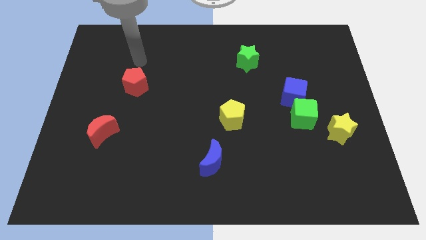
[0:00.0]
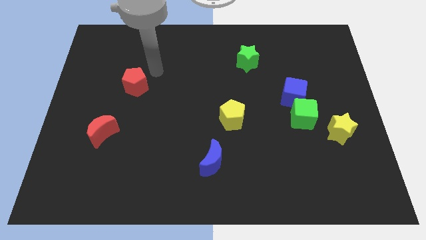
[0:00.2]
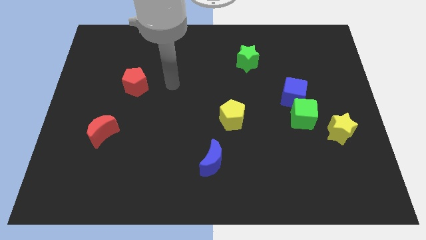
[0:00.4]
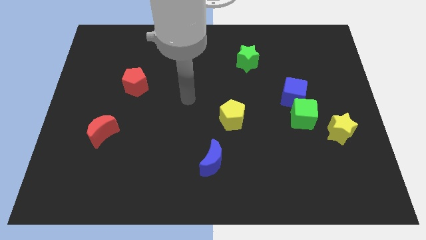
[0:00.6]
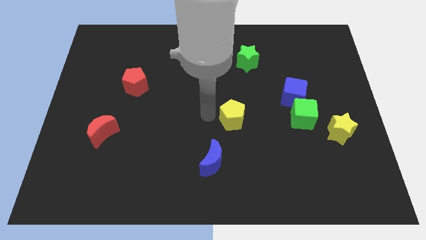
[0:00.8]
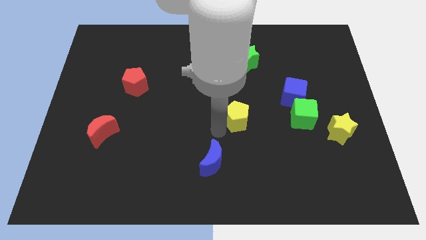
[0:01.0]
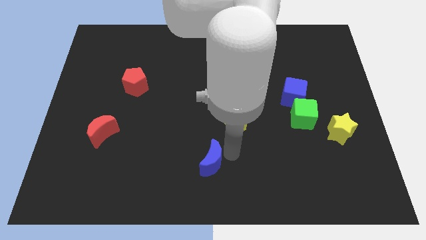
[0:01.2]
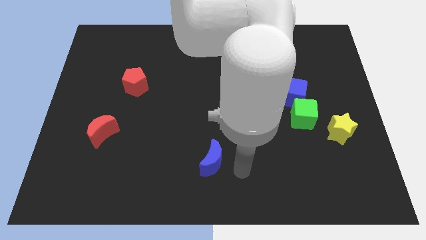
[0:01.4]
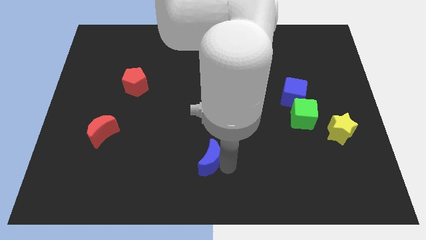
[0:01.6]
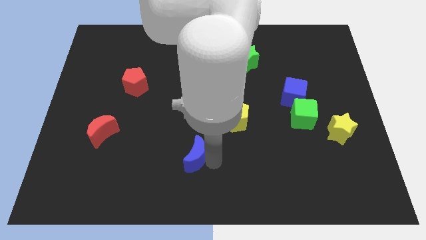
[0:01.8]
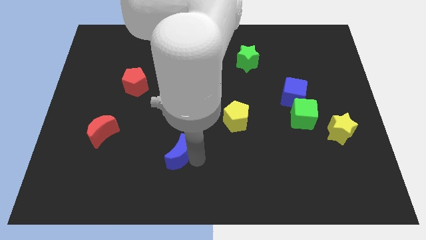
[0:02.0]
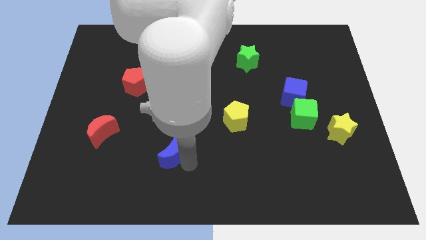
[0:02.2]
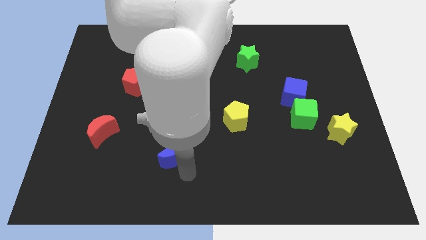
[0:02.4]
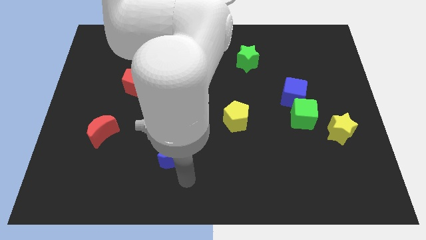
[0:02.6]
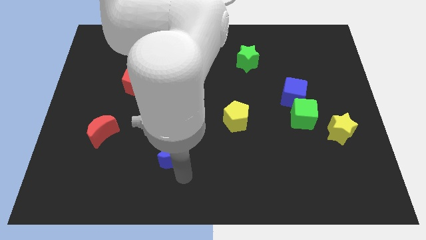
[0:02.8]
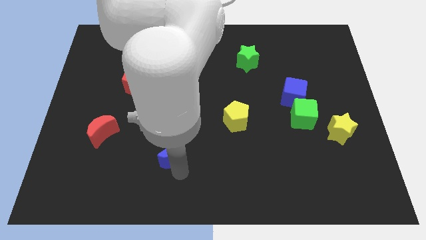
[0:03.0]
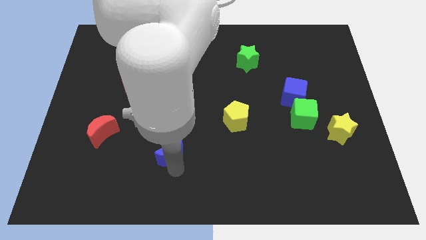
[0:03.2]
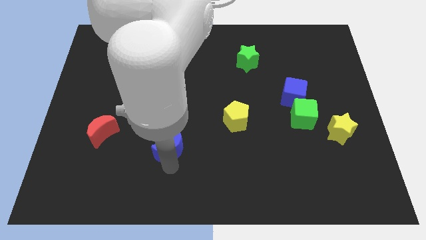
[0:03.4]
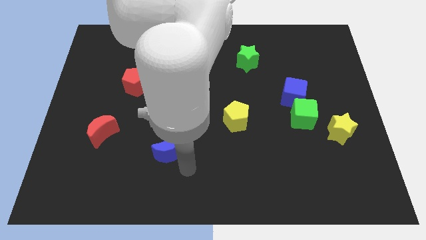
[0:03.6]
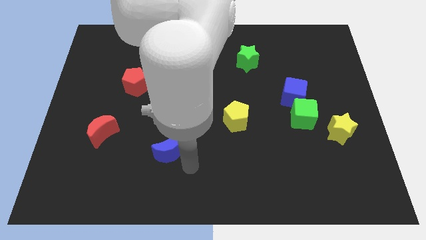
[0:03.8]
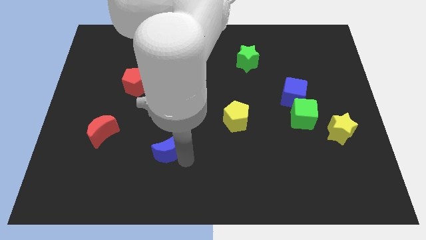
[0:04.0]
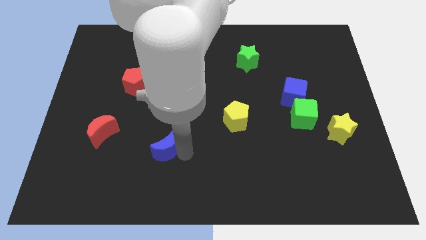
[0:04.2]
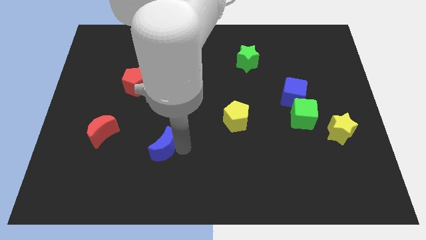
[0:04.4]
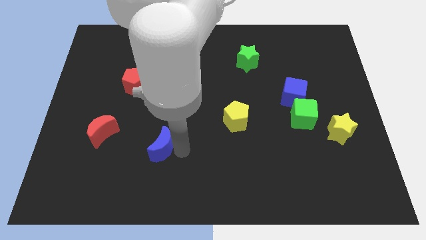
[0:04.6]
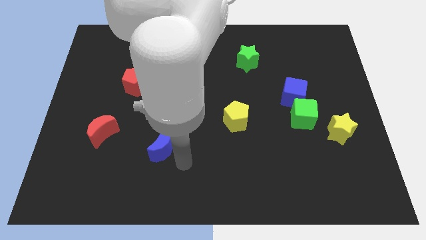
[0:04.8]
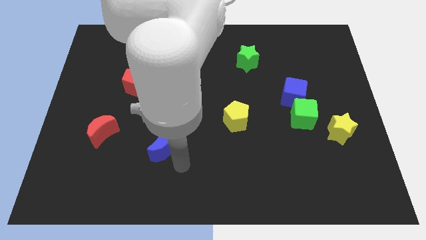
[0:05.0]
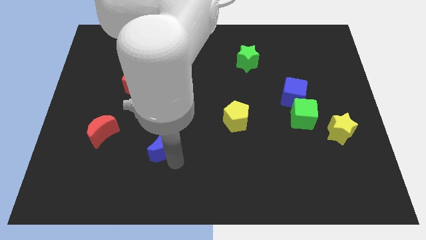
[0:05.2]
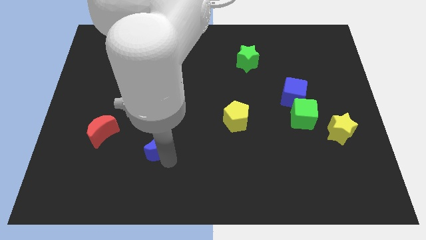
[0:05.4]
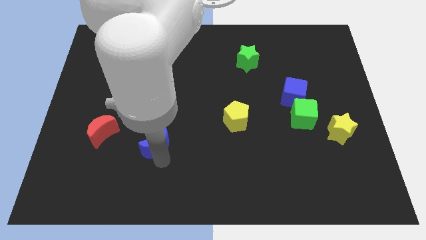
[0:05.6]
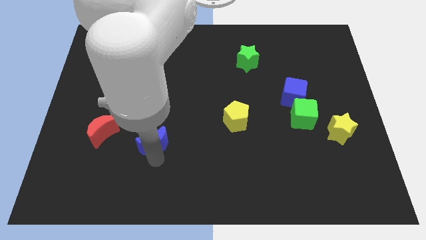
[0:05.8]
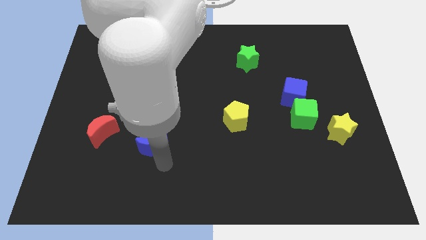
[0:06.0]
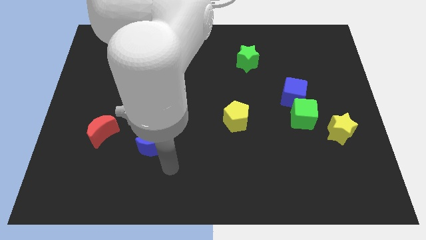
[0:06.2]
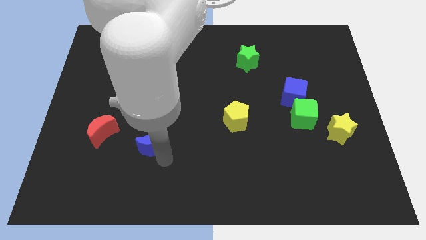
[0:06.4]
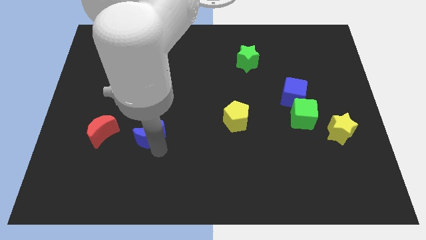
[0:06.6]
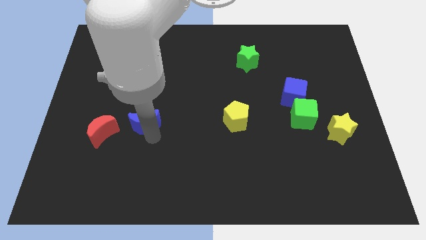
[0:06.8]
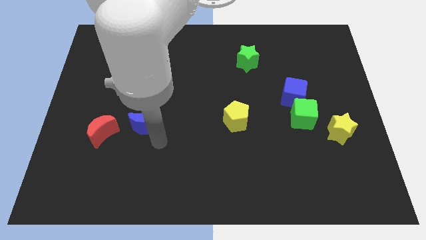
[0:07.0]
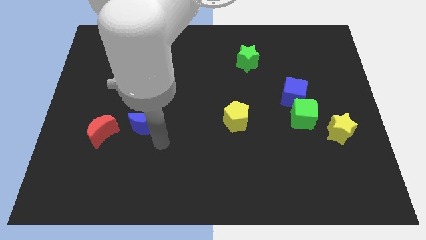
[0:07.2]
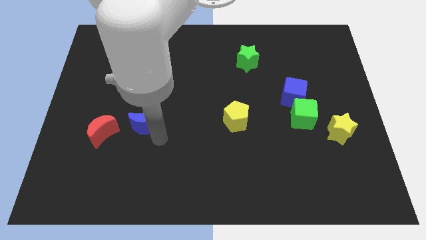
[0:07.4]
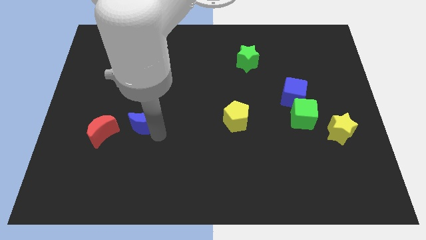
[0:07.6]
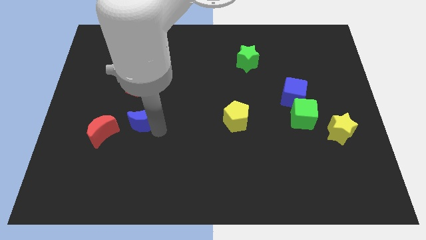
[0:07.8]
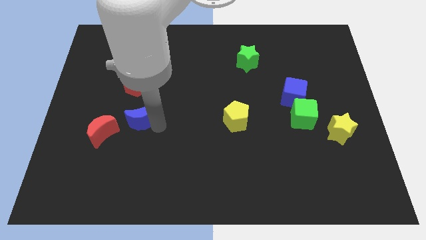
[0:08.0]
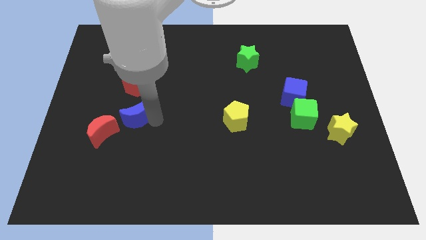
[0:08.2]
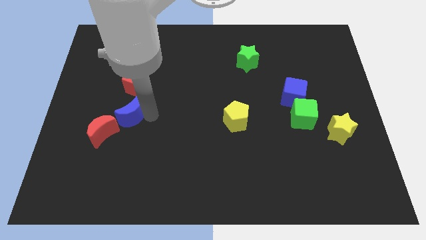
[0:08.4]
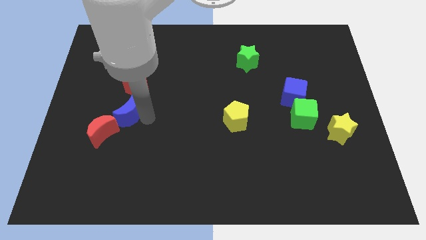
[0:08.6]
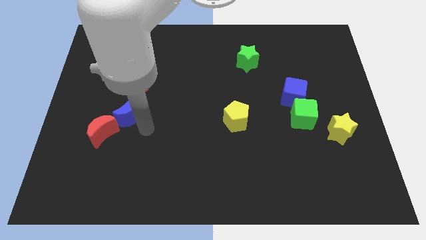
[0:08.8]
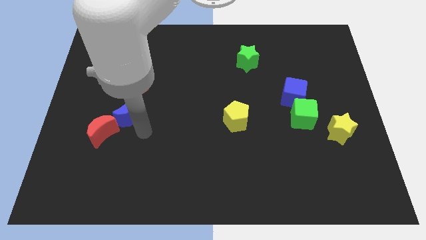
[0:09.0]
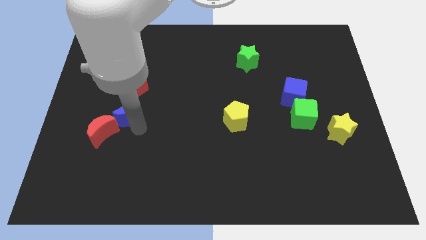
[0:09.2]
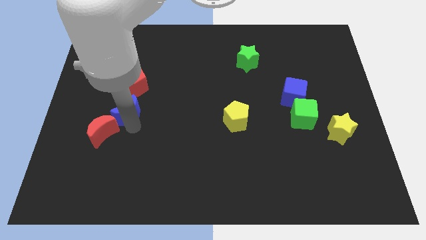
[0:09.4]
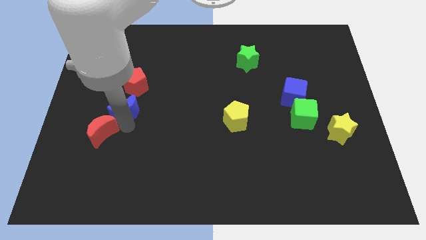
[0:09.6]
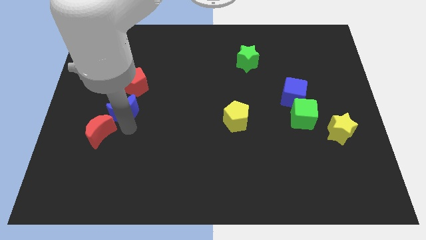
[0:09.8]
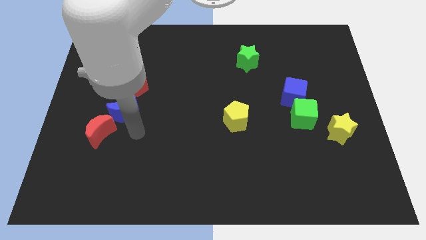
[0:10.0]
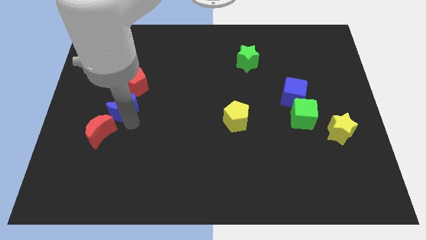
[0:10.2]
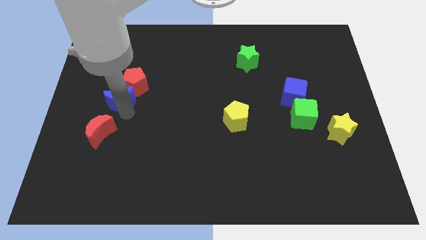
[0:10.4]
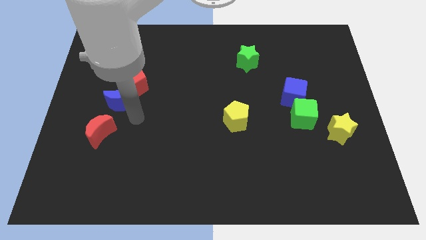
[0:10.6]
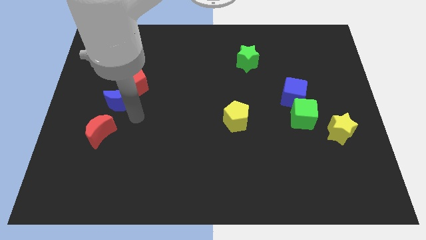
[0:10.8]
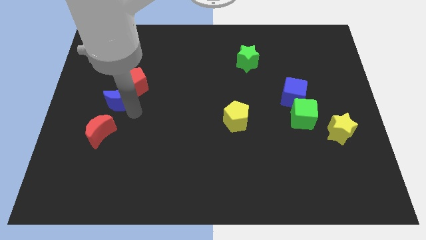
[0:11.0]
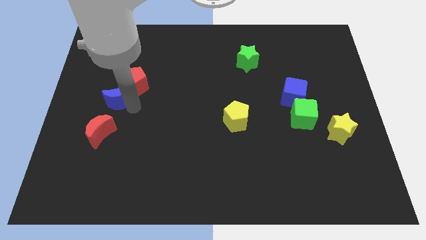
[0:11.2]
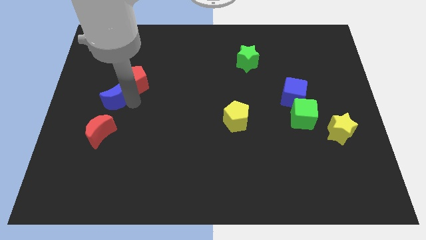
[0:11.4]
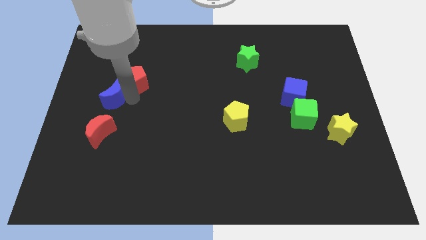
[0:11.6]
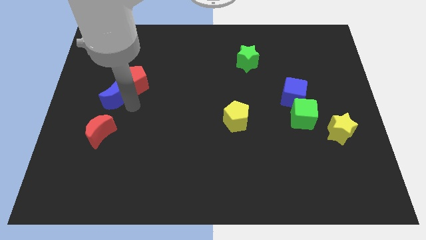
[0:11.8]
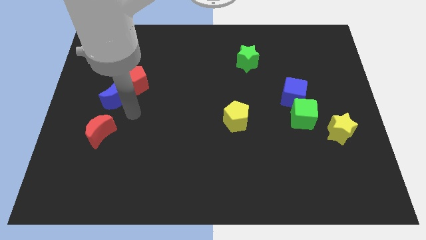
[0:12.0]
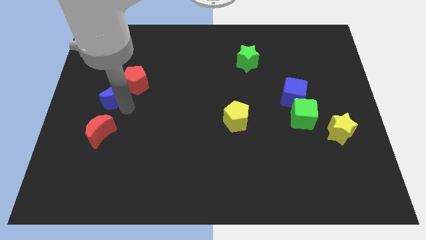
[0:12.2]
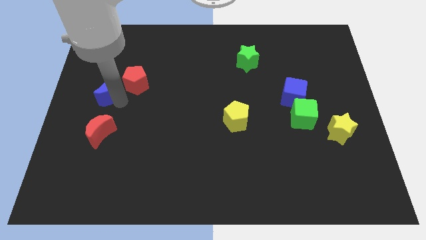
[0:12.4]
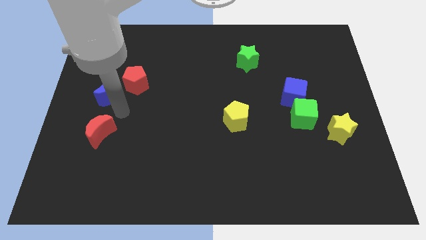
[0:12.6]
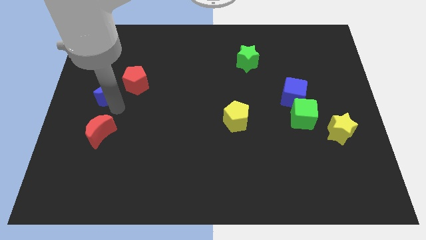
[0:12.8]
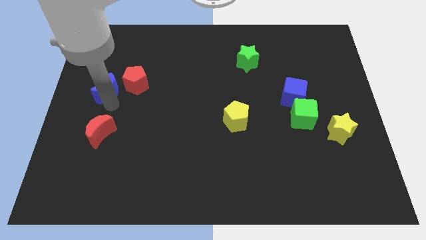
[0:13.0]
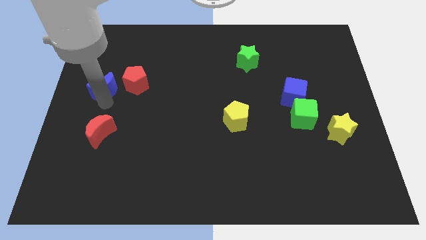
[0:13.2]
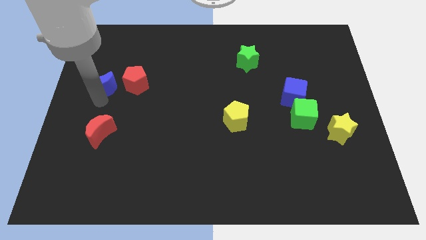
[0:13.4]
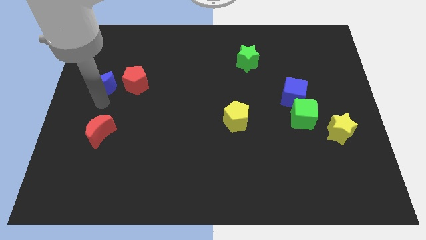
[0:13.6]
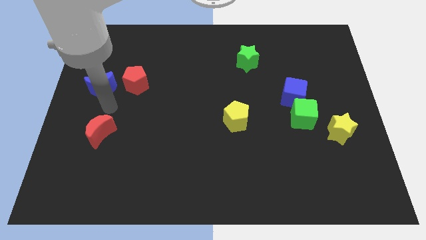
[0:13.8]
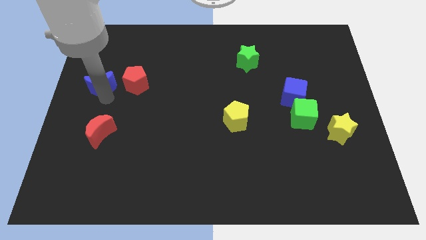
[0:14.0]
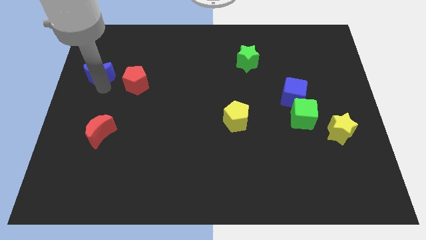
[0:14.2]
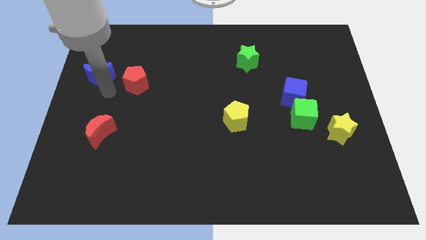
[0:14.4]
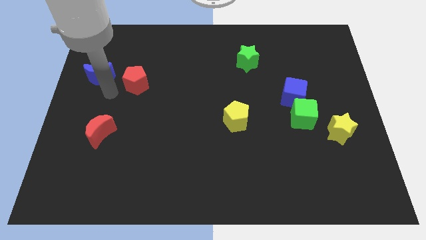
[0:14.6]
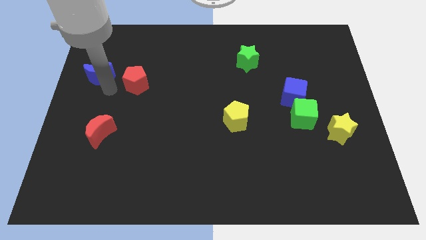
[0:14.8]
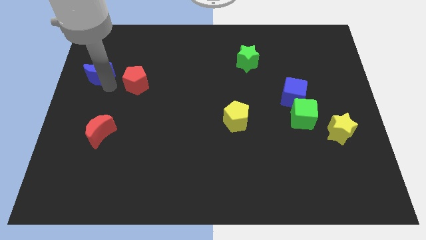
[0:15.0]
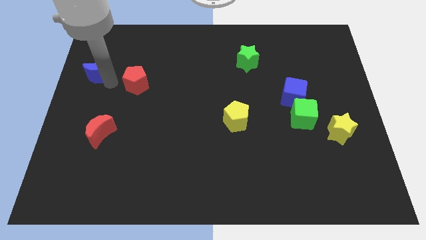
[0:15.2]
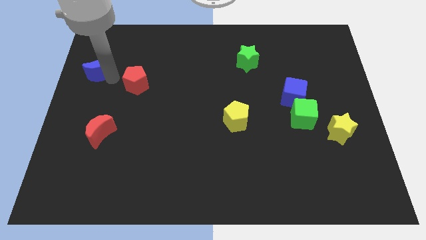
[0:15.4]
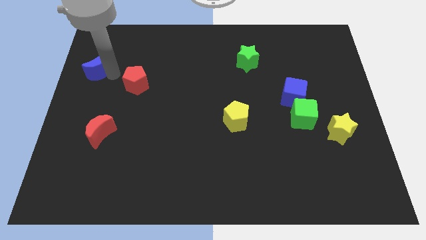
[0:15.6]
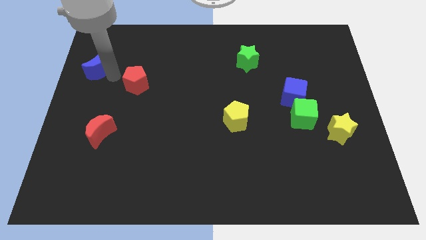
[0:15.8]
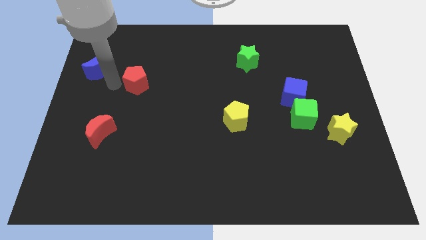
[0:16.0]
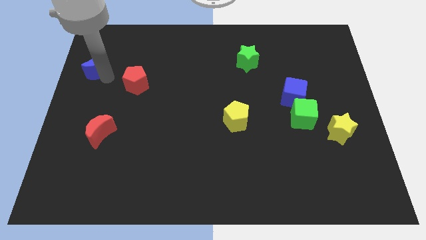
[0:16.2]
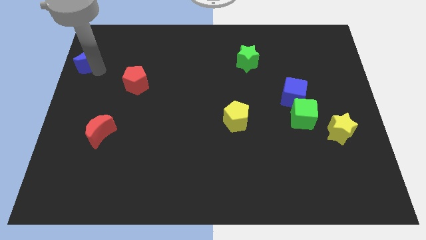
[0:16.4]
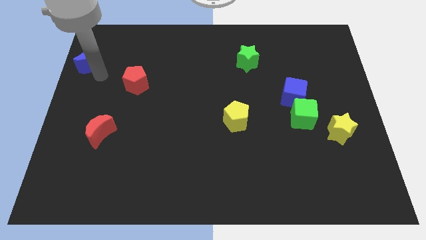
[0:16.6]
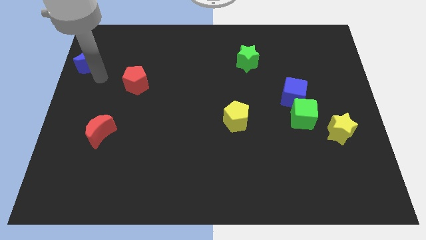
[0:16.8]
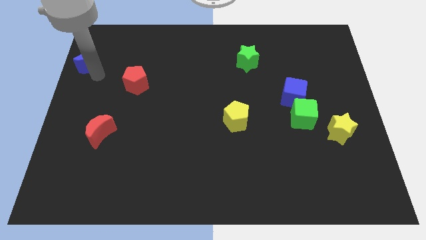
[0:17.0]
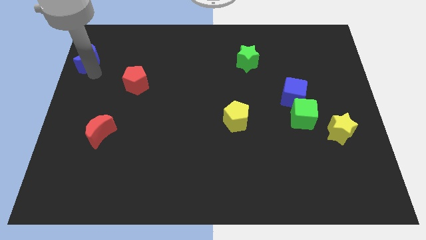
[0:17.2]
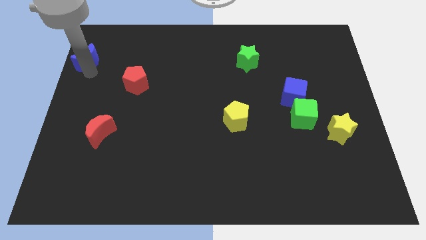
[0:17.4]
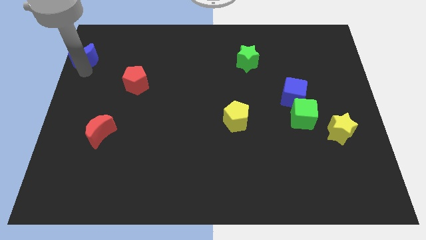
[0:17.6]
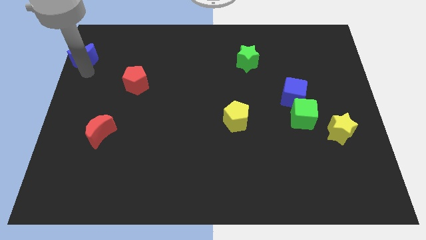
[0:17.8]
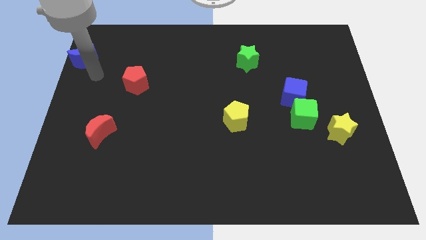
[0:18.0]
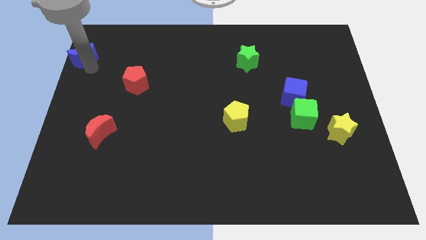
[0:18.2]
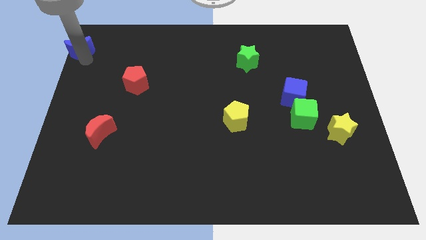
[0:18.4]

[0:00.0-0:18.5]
move the blue moon to the top left of the board
